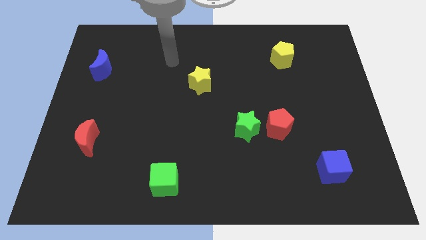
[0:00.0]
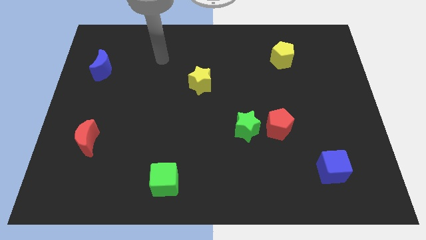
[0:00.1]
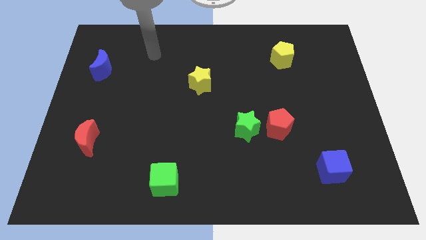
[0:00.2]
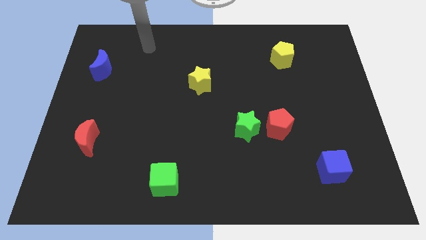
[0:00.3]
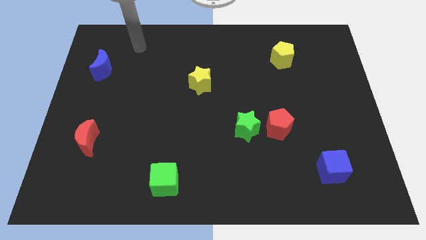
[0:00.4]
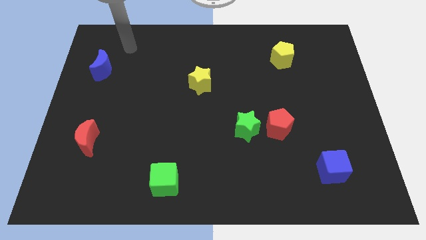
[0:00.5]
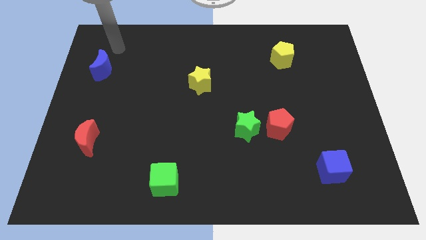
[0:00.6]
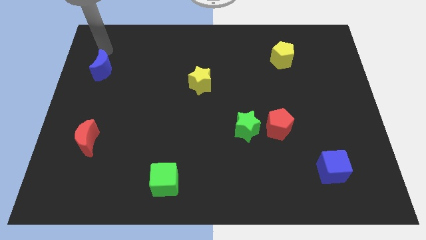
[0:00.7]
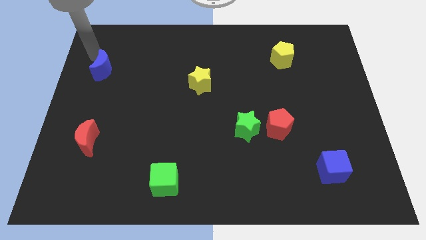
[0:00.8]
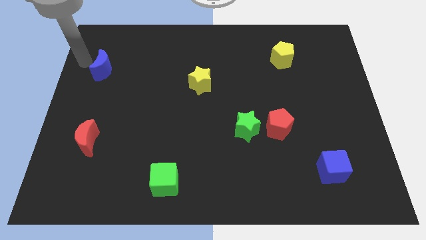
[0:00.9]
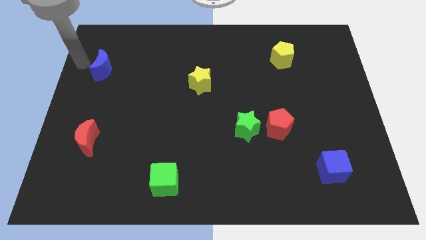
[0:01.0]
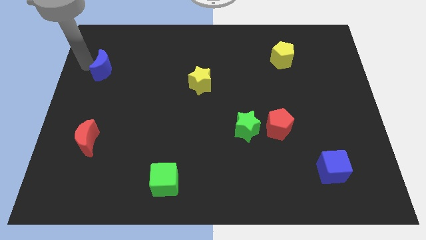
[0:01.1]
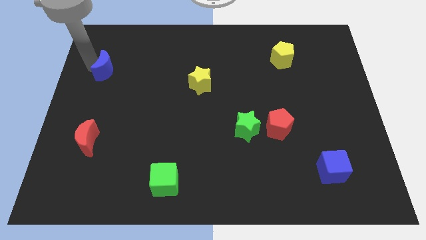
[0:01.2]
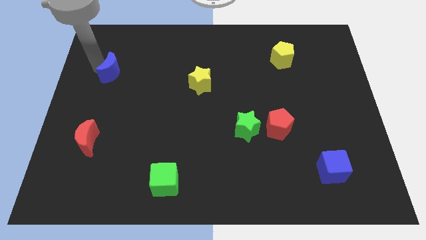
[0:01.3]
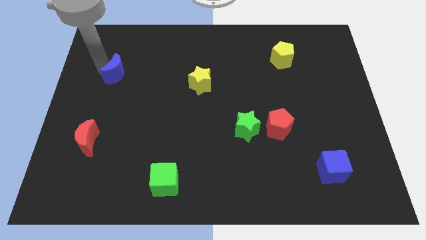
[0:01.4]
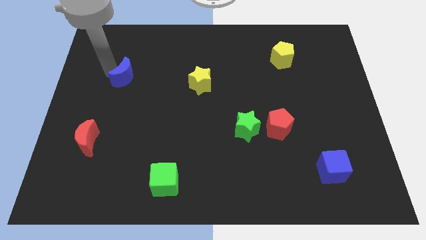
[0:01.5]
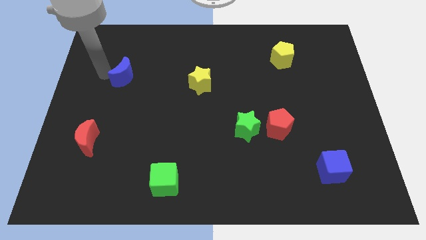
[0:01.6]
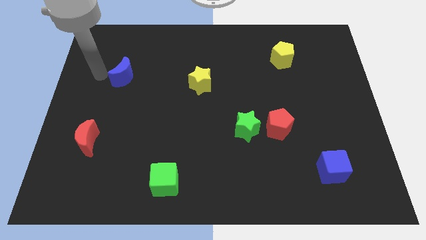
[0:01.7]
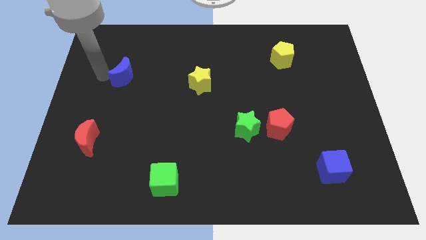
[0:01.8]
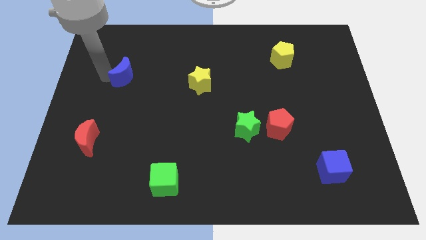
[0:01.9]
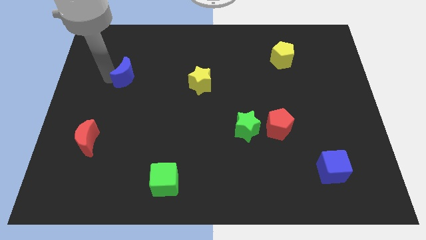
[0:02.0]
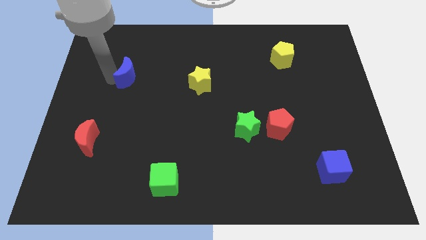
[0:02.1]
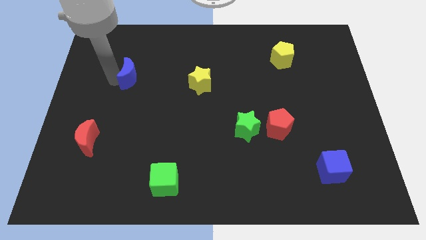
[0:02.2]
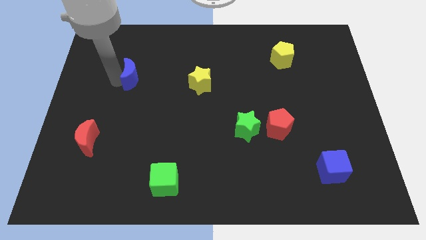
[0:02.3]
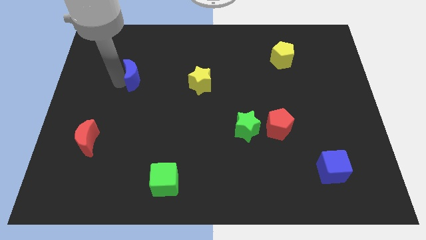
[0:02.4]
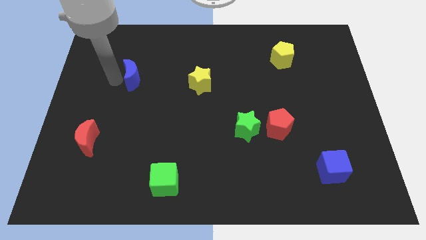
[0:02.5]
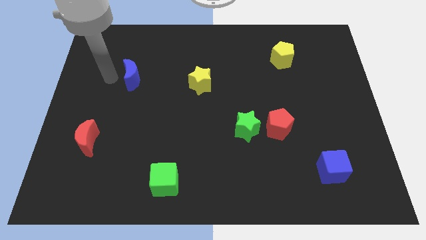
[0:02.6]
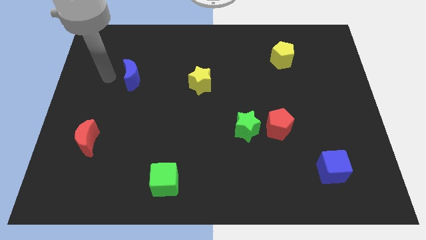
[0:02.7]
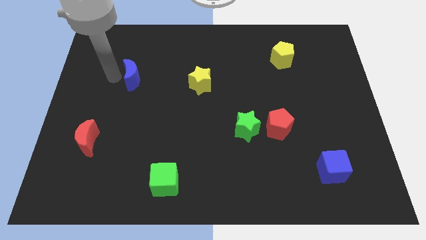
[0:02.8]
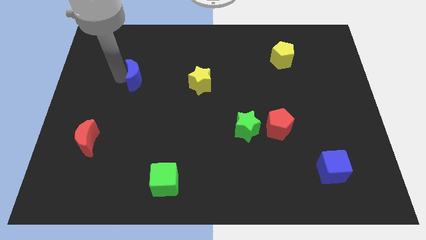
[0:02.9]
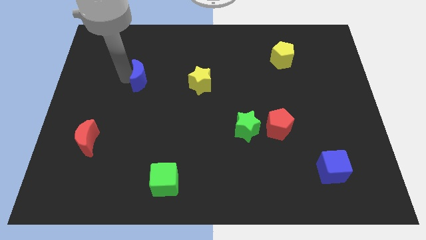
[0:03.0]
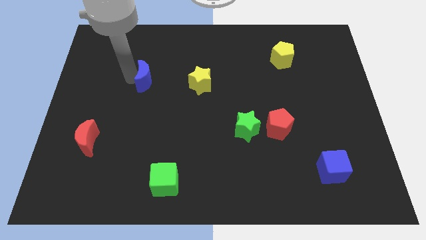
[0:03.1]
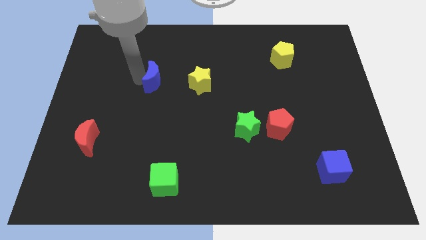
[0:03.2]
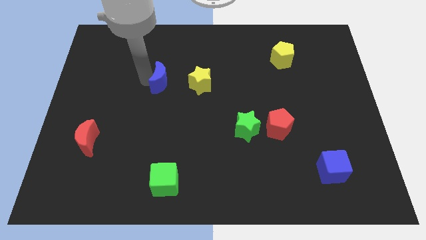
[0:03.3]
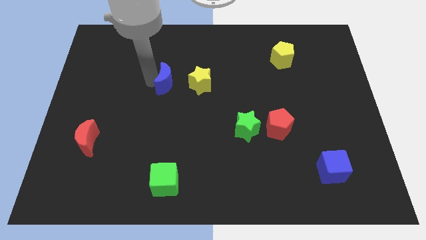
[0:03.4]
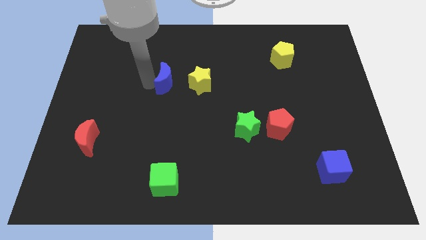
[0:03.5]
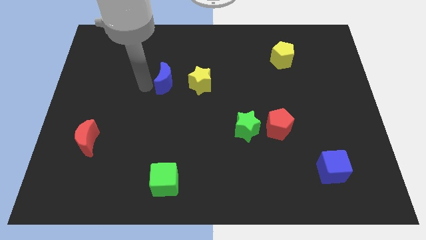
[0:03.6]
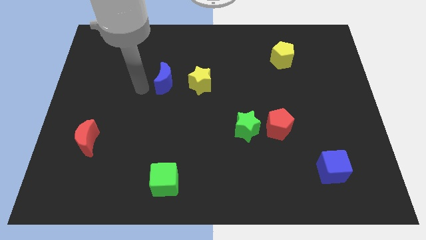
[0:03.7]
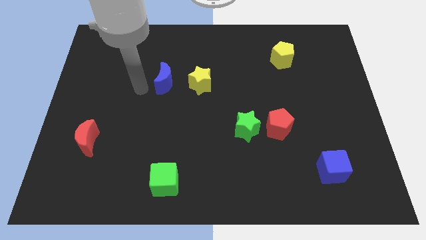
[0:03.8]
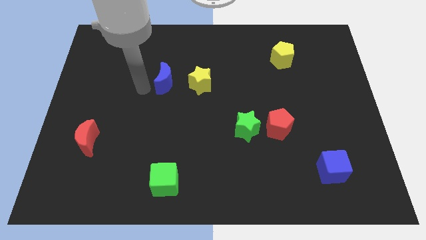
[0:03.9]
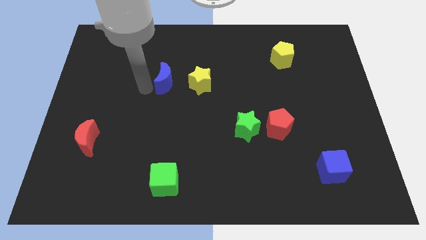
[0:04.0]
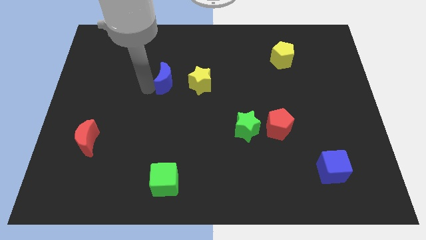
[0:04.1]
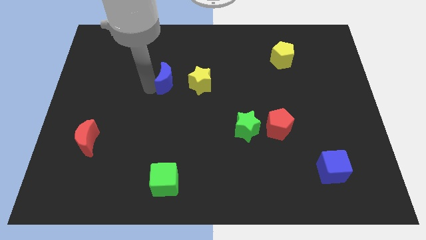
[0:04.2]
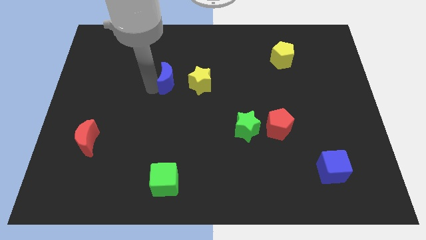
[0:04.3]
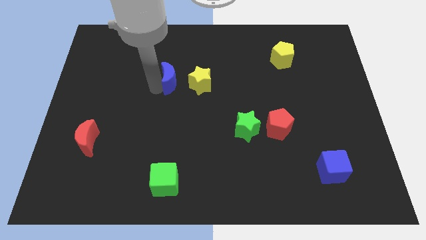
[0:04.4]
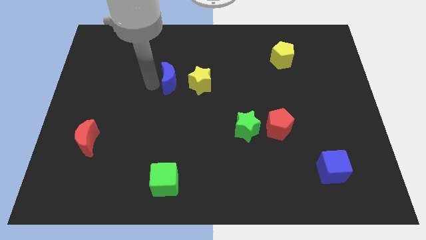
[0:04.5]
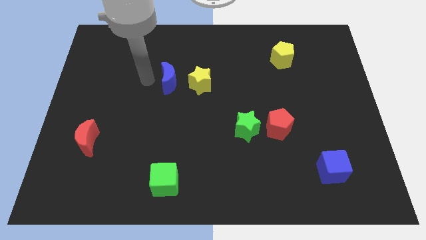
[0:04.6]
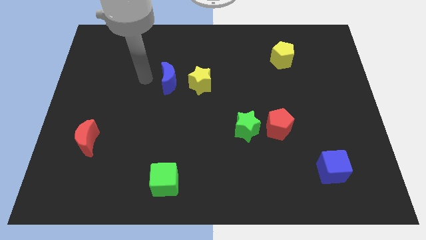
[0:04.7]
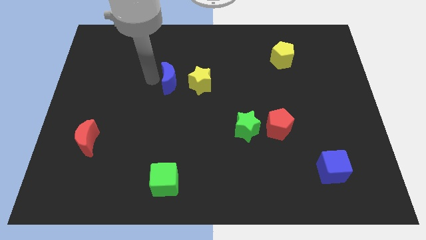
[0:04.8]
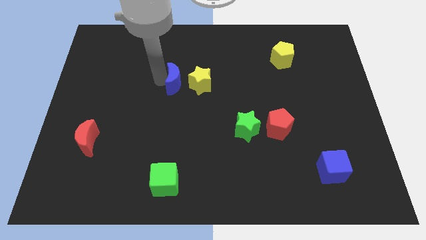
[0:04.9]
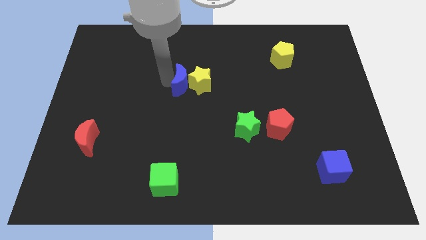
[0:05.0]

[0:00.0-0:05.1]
move the blue moon next to the yellow star

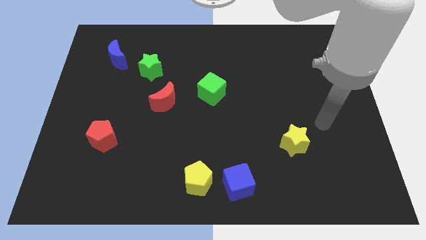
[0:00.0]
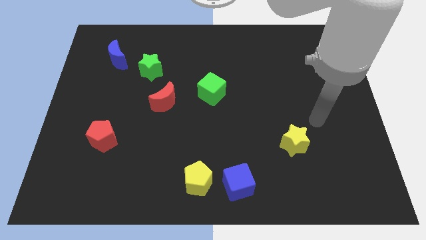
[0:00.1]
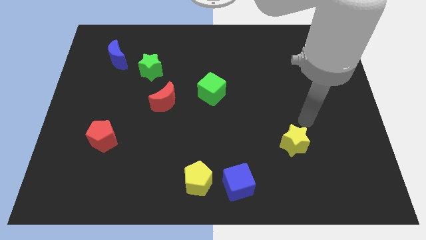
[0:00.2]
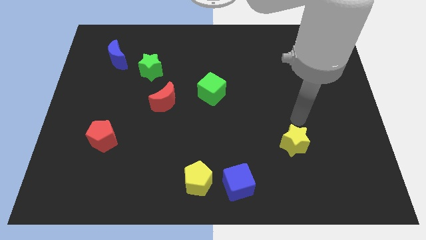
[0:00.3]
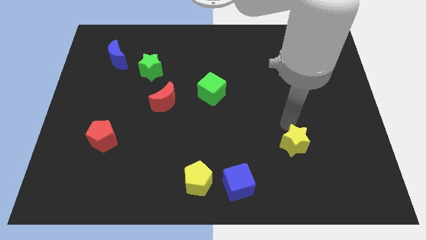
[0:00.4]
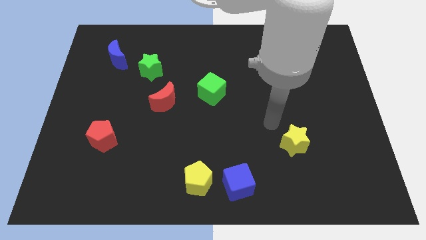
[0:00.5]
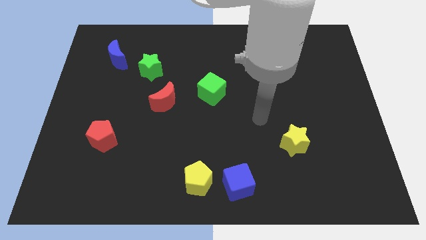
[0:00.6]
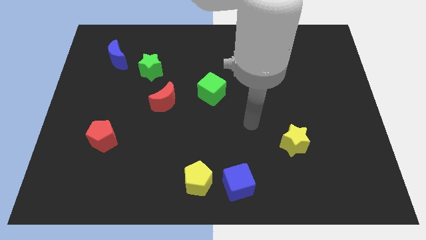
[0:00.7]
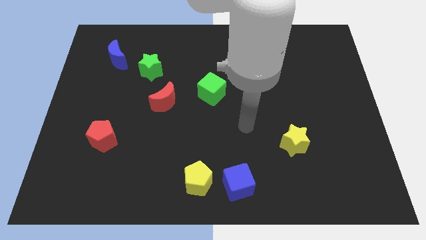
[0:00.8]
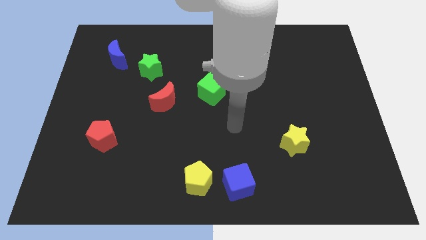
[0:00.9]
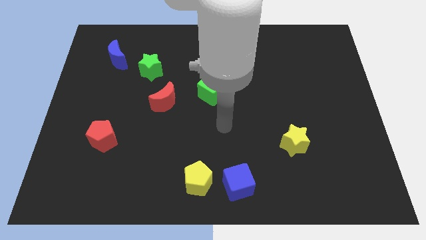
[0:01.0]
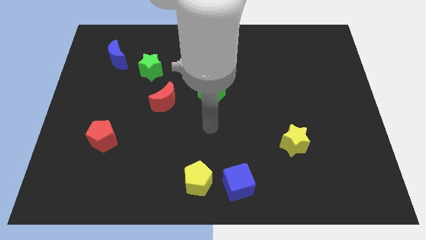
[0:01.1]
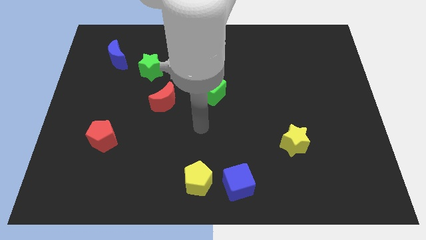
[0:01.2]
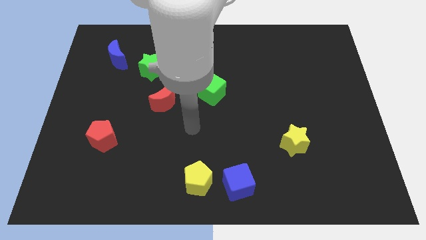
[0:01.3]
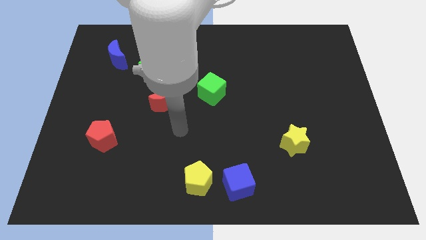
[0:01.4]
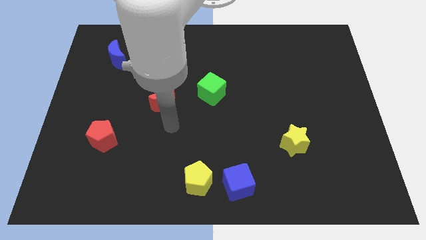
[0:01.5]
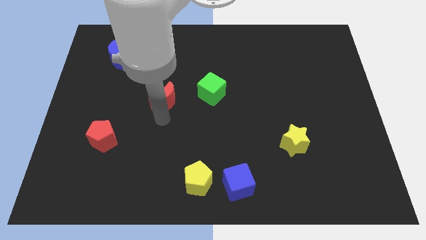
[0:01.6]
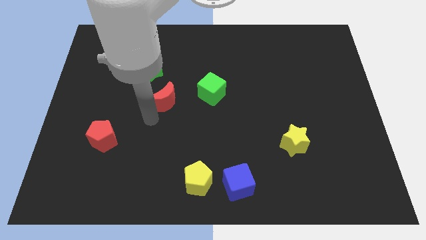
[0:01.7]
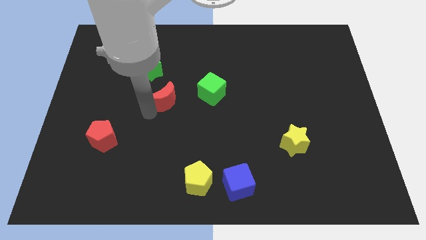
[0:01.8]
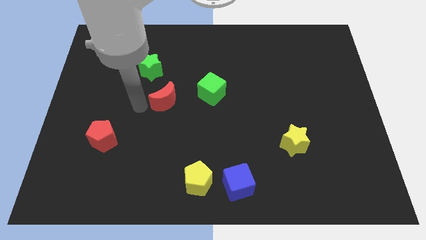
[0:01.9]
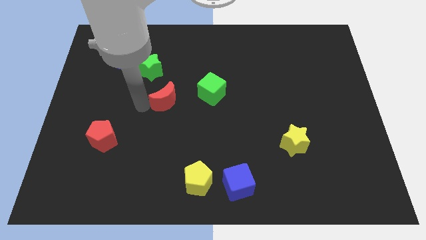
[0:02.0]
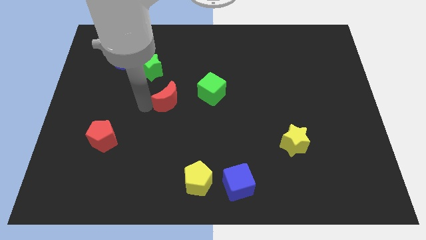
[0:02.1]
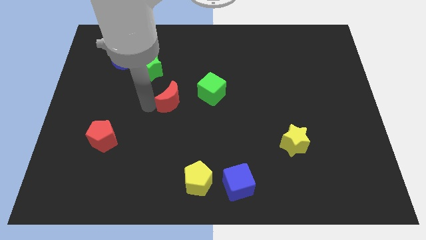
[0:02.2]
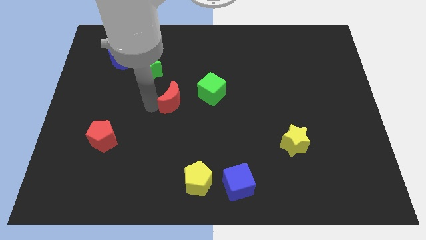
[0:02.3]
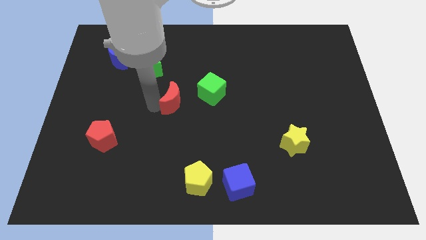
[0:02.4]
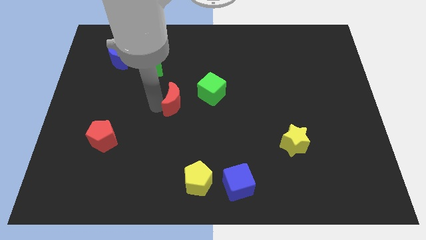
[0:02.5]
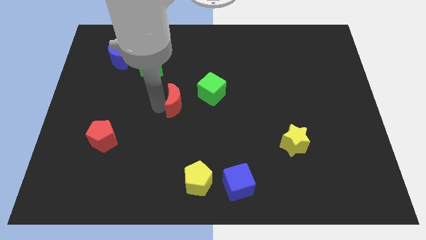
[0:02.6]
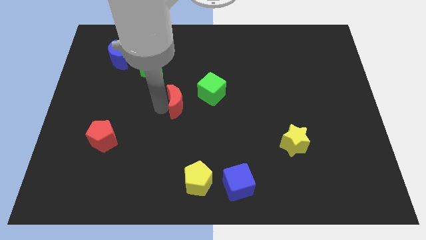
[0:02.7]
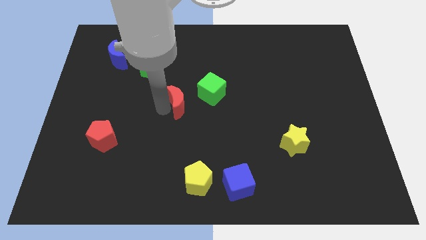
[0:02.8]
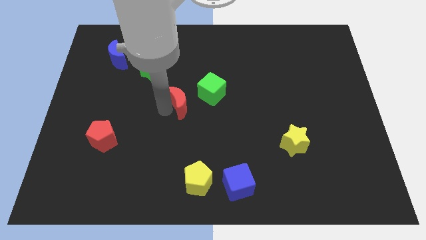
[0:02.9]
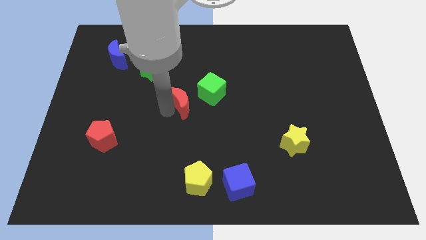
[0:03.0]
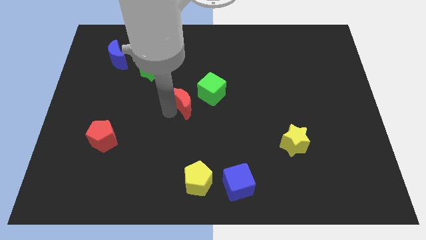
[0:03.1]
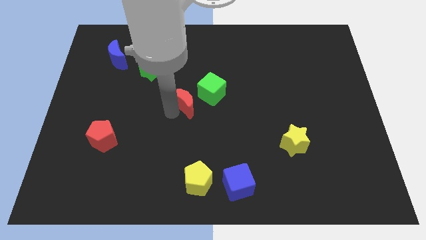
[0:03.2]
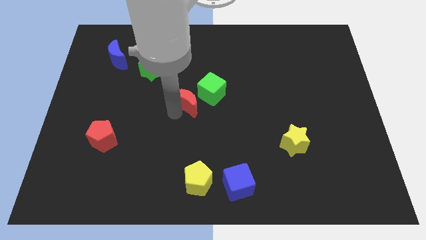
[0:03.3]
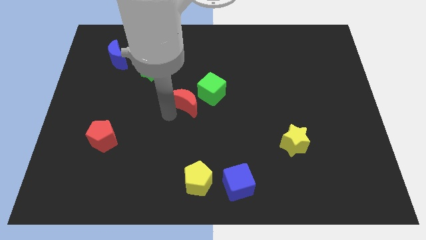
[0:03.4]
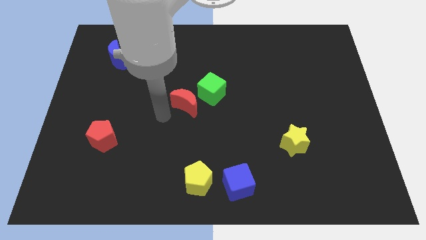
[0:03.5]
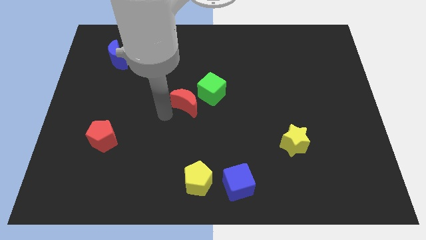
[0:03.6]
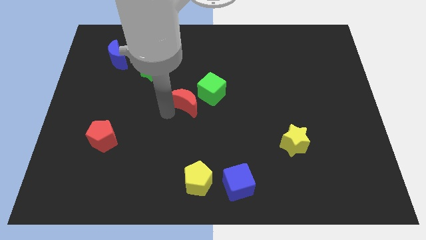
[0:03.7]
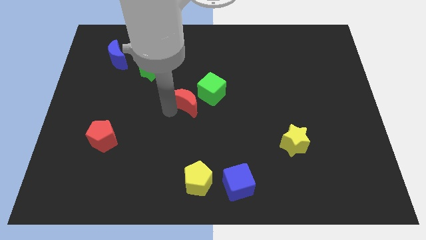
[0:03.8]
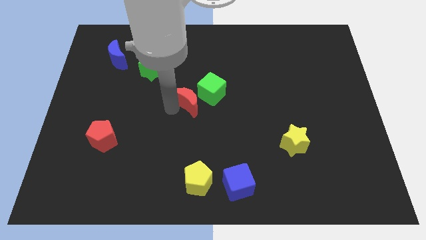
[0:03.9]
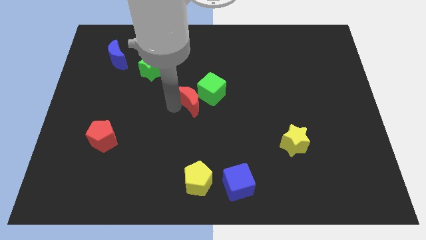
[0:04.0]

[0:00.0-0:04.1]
move the red moon to the green cube
